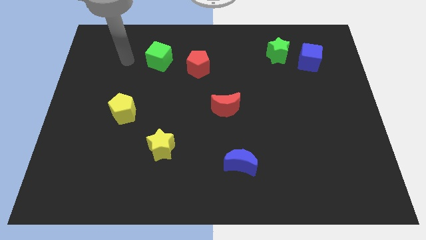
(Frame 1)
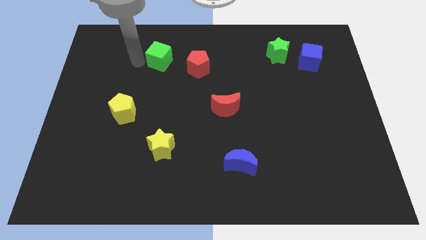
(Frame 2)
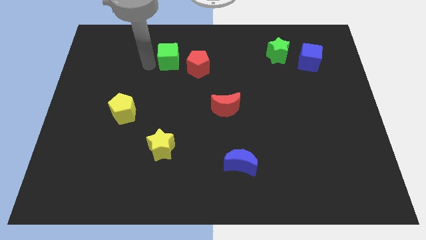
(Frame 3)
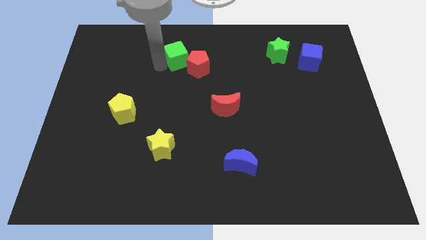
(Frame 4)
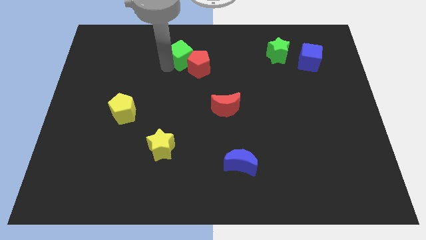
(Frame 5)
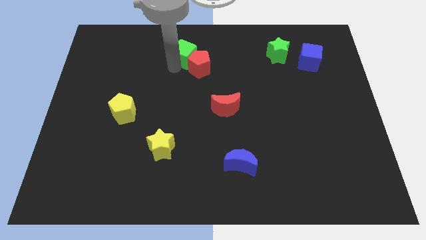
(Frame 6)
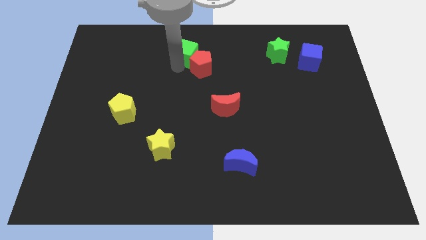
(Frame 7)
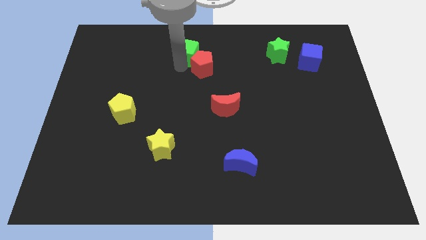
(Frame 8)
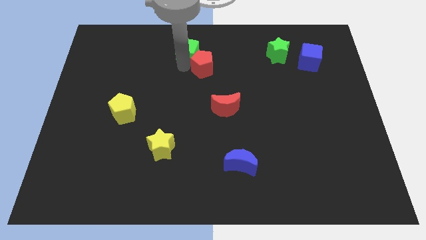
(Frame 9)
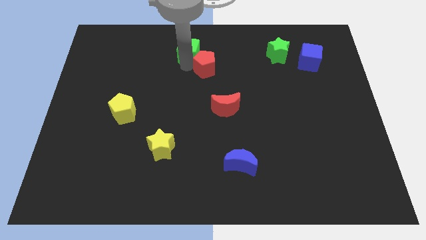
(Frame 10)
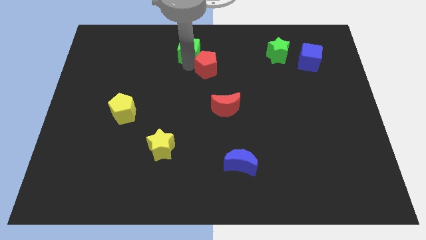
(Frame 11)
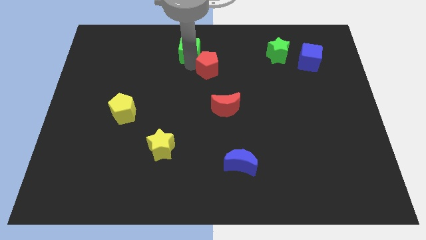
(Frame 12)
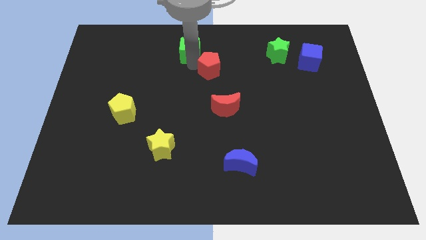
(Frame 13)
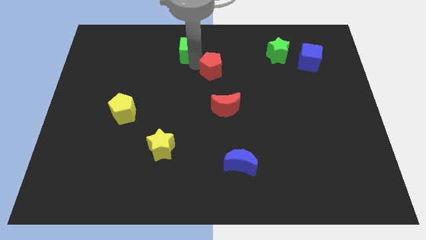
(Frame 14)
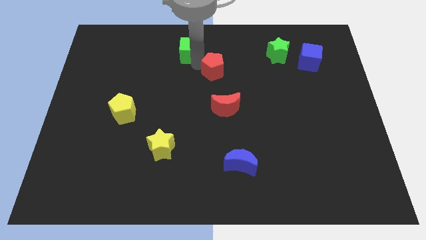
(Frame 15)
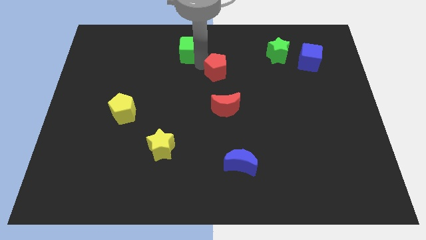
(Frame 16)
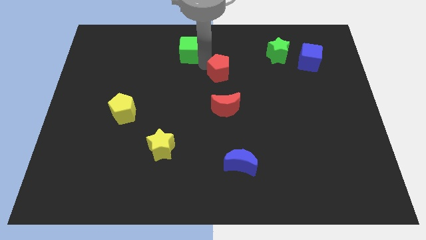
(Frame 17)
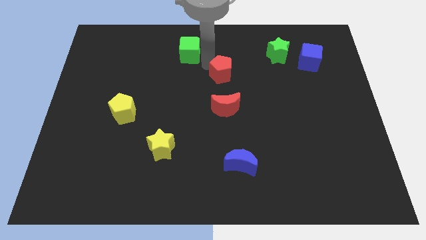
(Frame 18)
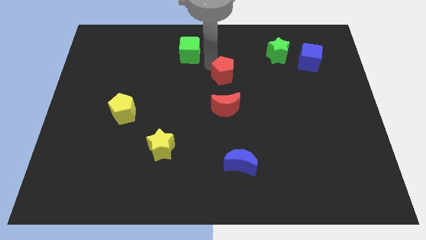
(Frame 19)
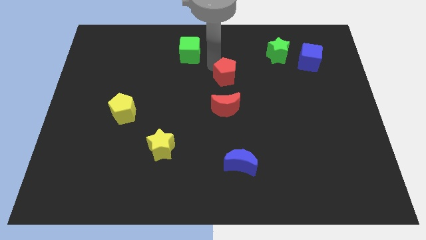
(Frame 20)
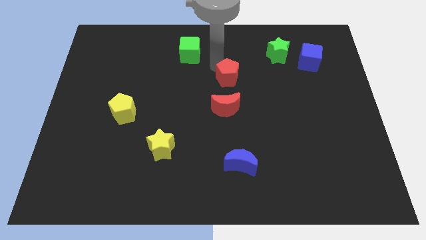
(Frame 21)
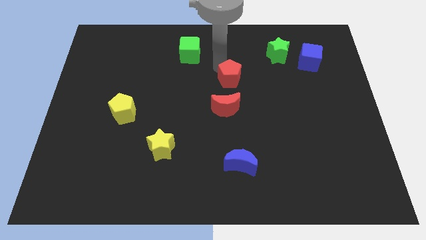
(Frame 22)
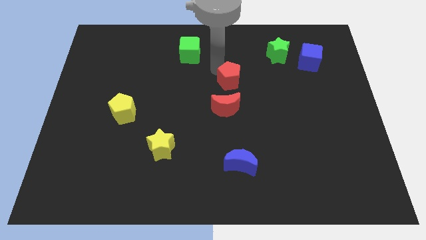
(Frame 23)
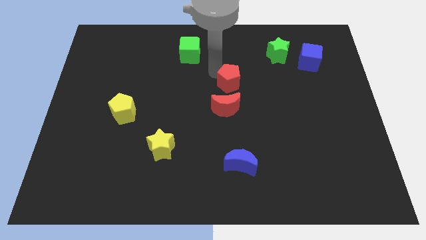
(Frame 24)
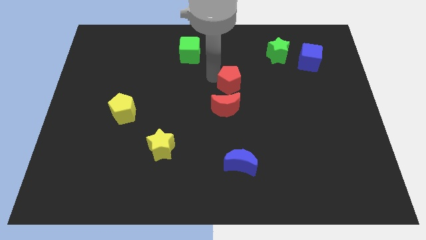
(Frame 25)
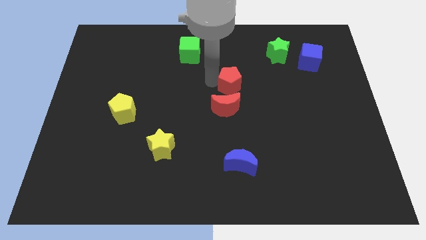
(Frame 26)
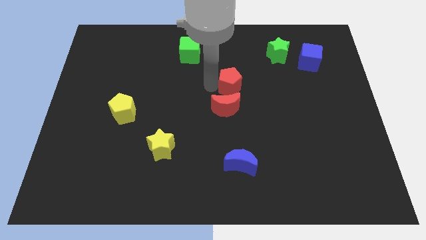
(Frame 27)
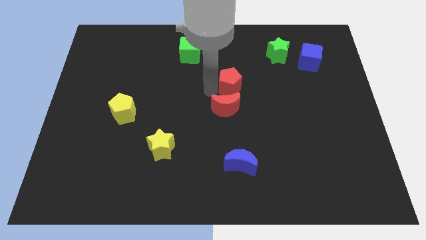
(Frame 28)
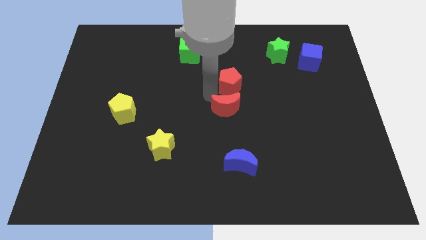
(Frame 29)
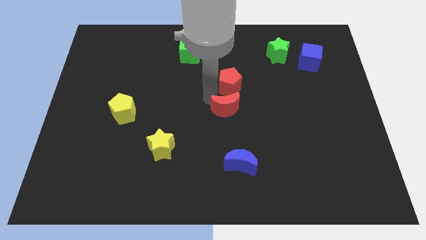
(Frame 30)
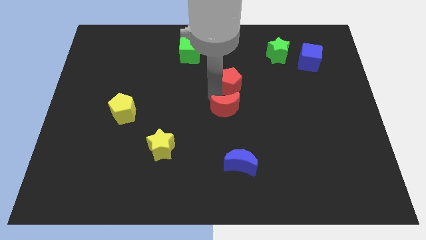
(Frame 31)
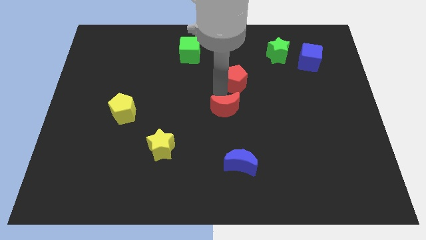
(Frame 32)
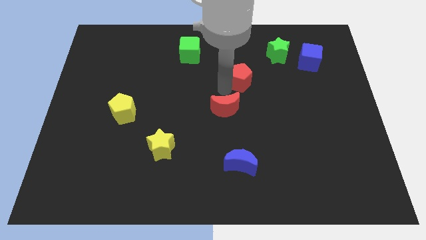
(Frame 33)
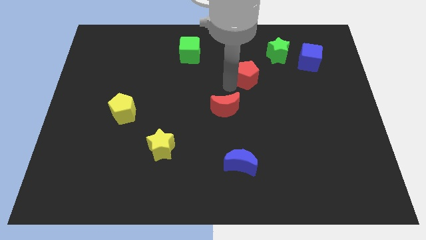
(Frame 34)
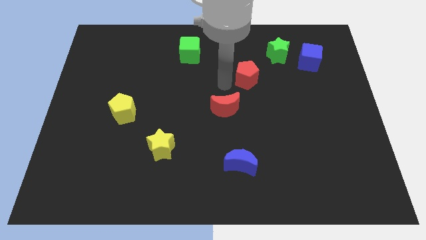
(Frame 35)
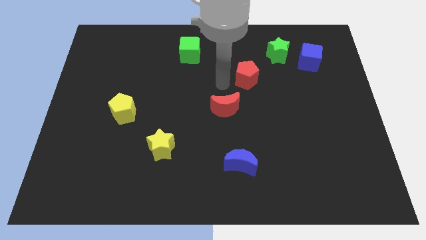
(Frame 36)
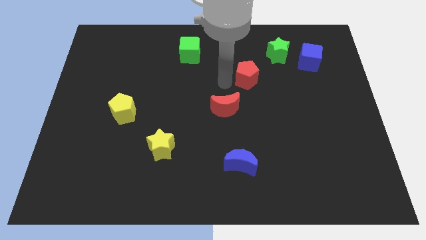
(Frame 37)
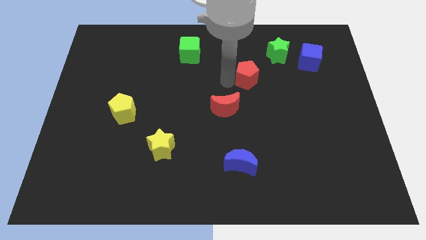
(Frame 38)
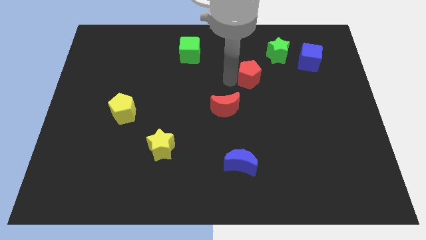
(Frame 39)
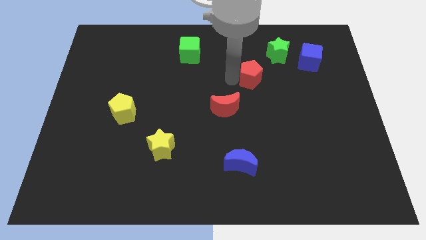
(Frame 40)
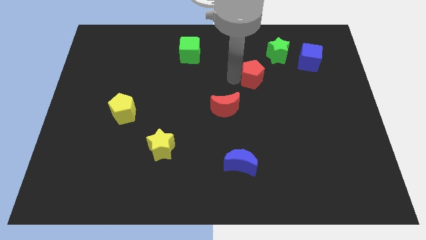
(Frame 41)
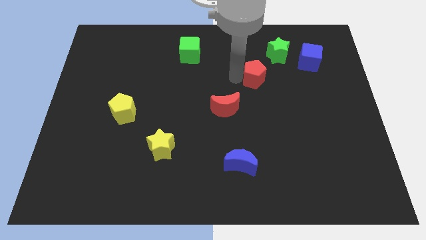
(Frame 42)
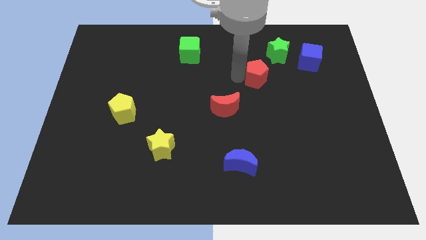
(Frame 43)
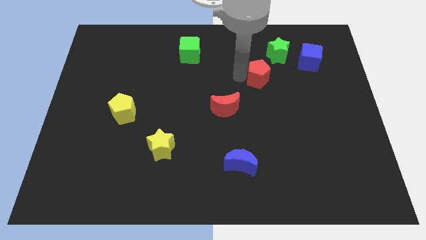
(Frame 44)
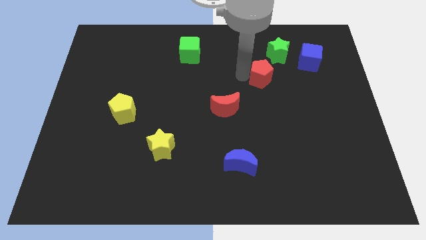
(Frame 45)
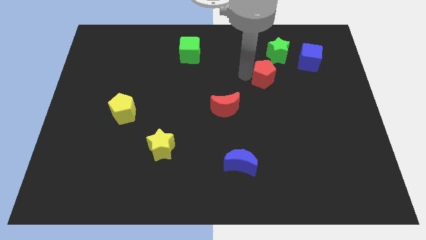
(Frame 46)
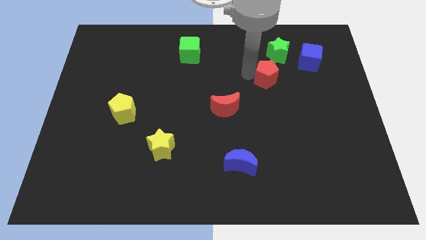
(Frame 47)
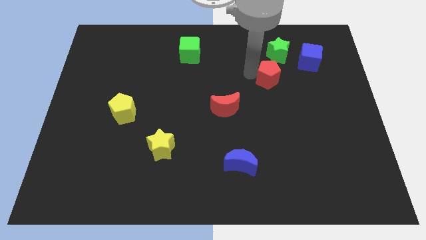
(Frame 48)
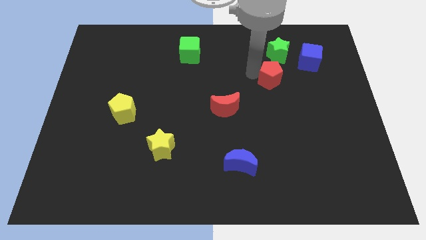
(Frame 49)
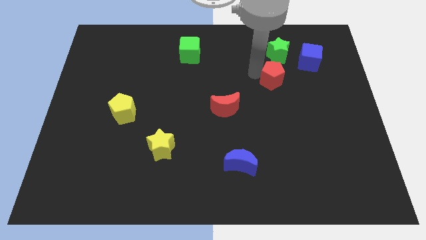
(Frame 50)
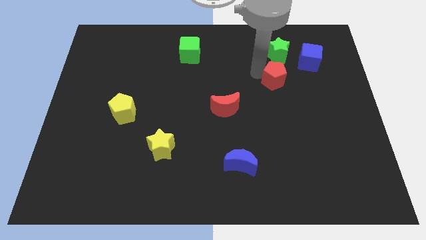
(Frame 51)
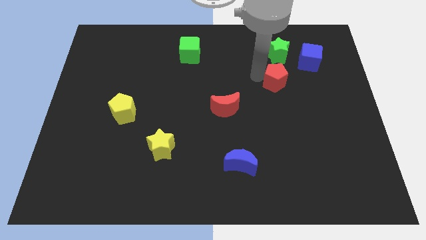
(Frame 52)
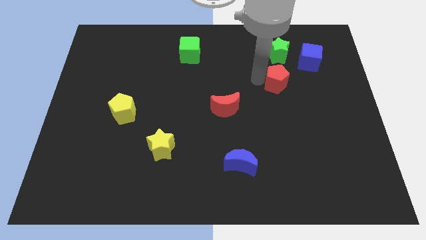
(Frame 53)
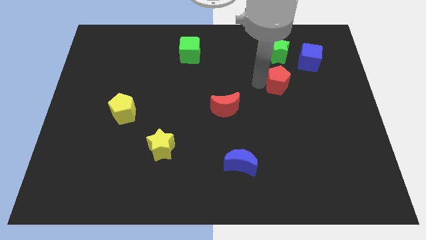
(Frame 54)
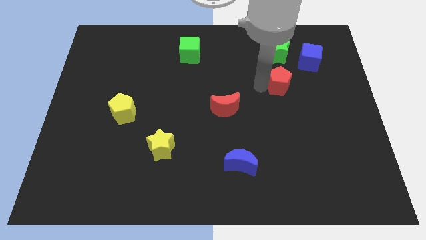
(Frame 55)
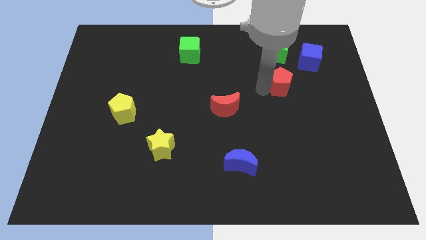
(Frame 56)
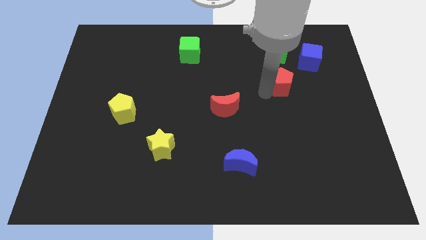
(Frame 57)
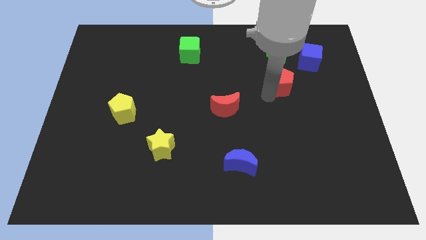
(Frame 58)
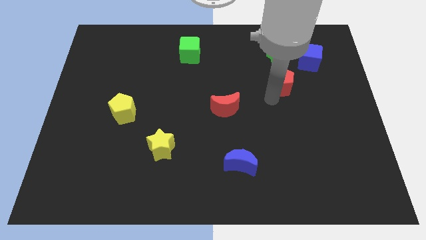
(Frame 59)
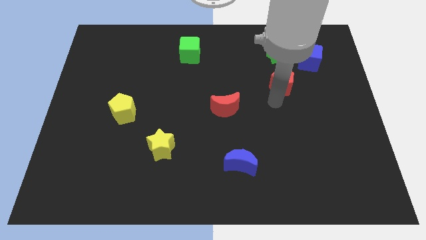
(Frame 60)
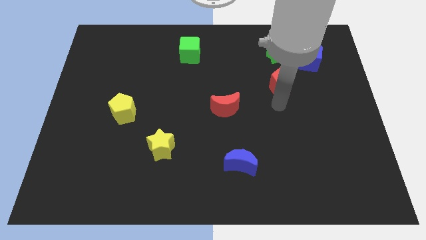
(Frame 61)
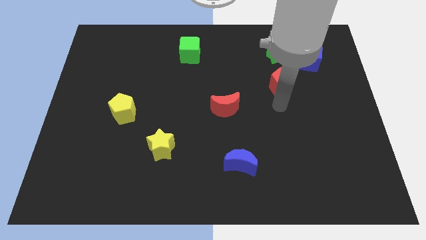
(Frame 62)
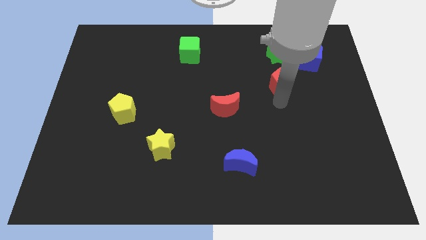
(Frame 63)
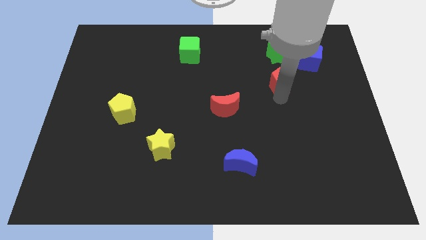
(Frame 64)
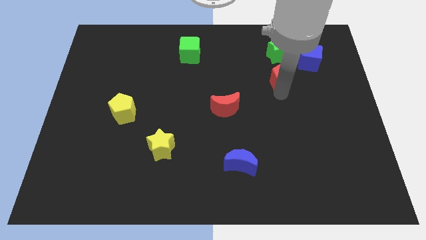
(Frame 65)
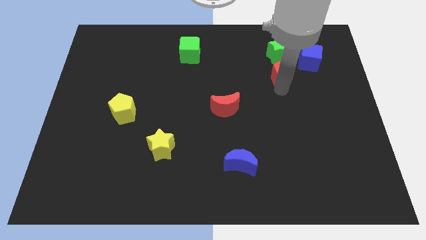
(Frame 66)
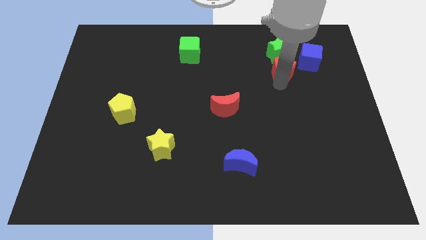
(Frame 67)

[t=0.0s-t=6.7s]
push the red pentagon to the bottom right of the green star
